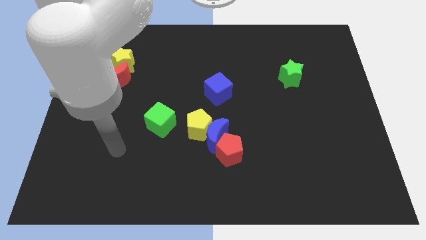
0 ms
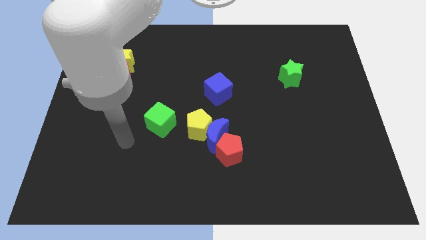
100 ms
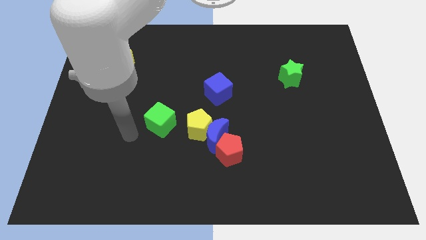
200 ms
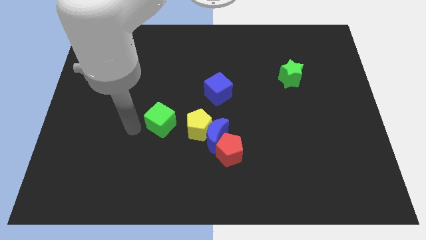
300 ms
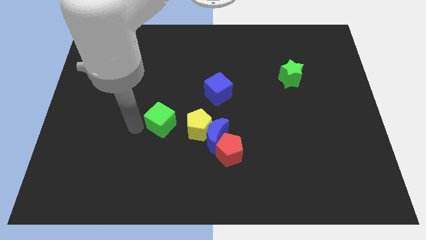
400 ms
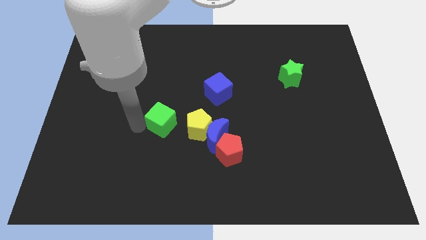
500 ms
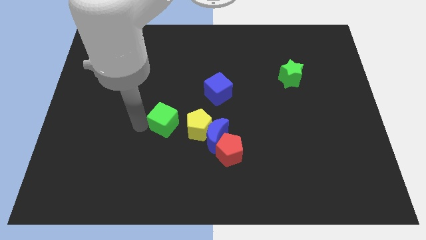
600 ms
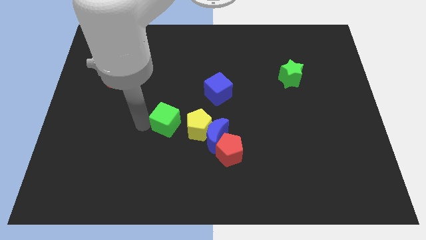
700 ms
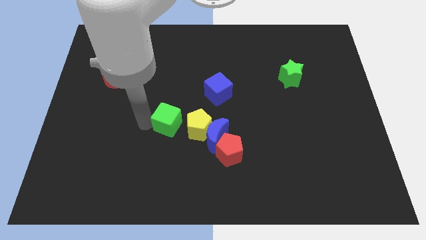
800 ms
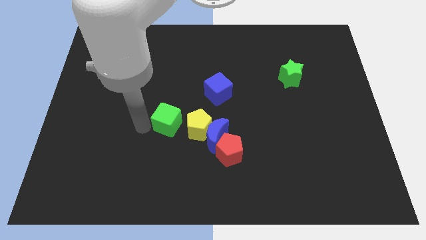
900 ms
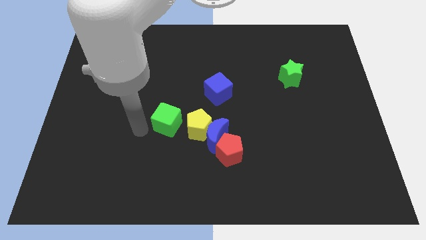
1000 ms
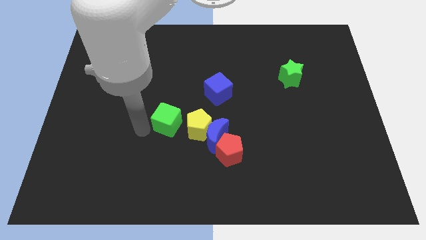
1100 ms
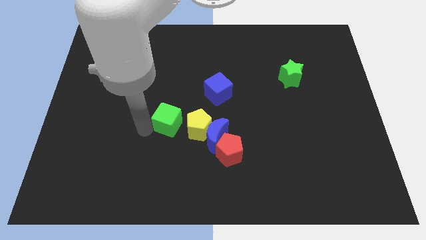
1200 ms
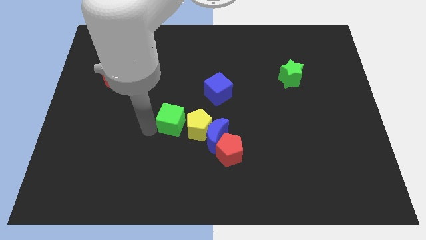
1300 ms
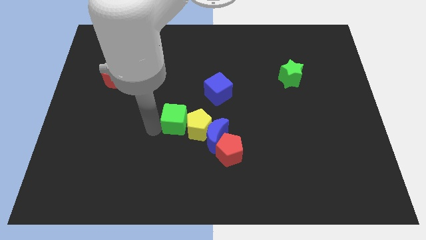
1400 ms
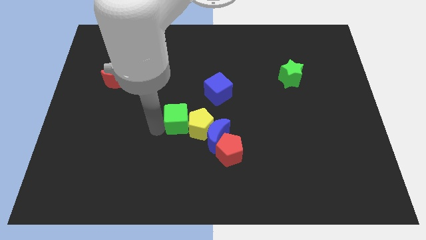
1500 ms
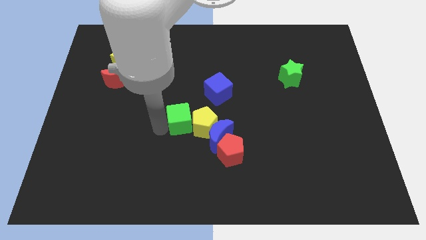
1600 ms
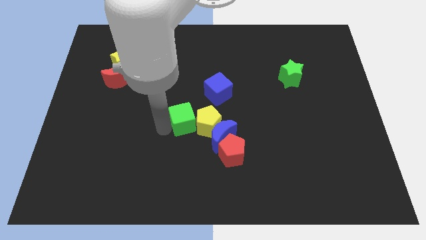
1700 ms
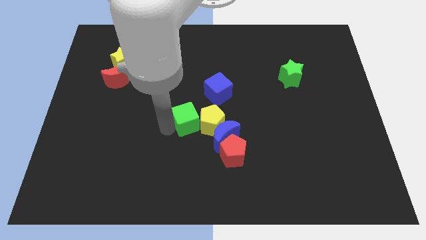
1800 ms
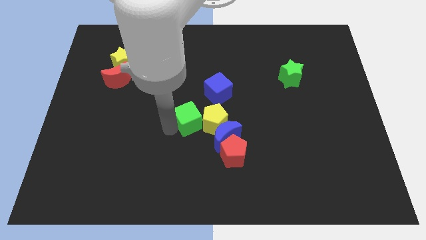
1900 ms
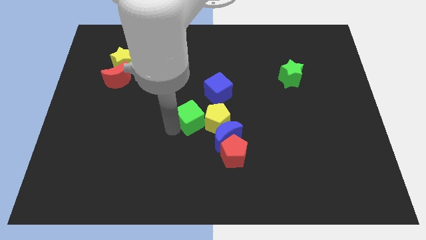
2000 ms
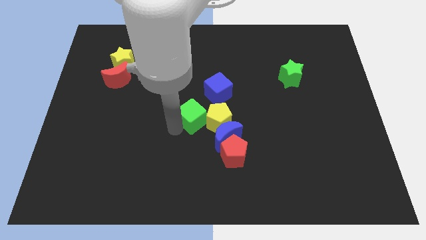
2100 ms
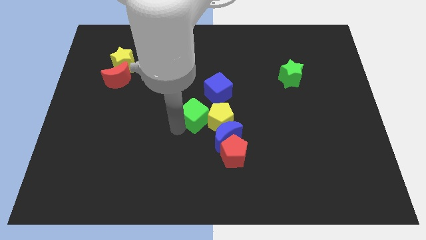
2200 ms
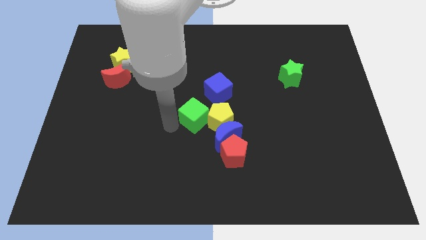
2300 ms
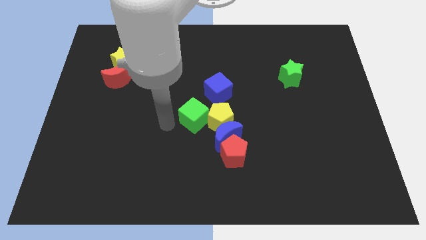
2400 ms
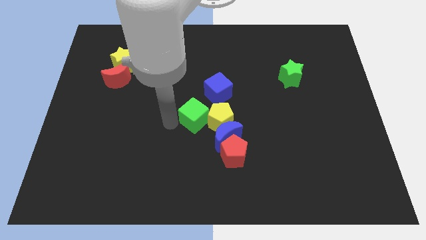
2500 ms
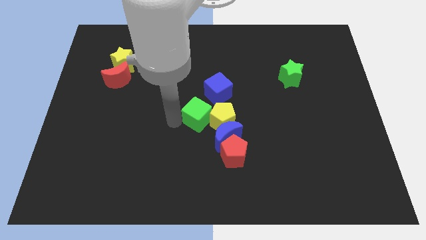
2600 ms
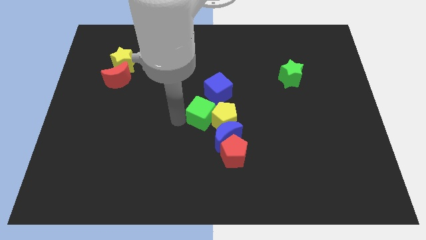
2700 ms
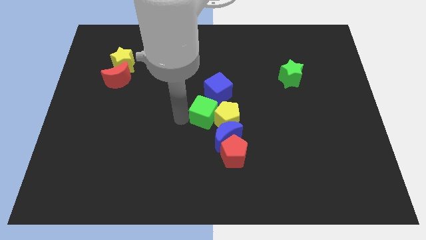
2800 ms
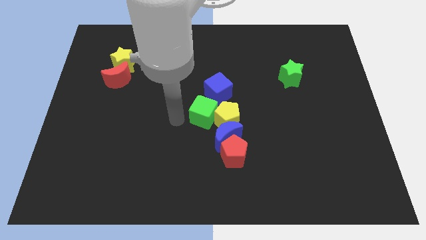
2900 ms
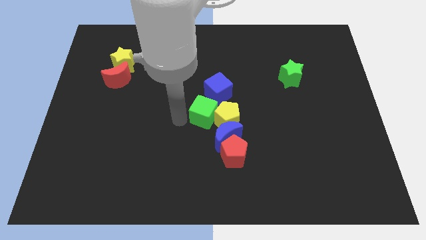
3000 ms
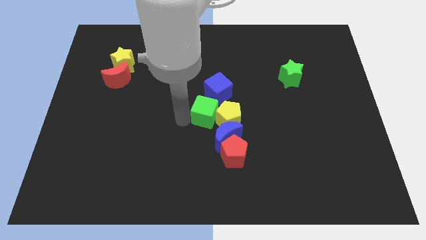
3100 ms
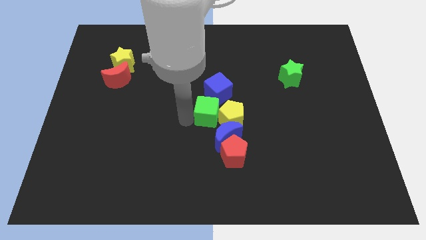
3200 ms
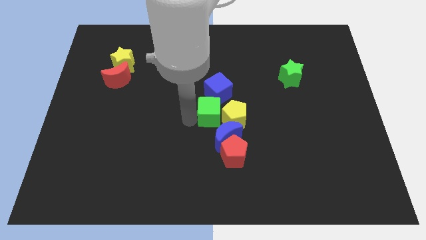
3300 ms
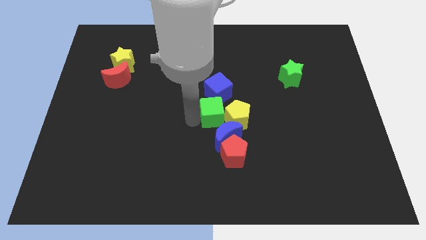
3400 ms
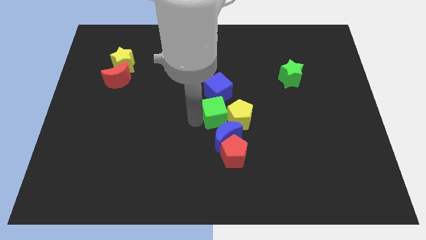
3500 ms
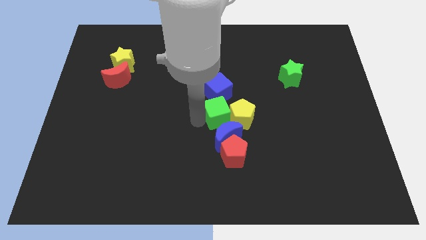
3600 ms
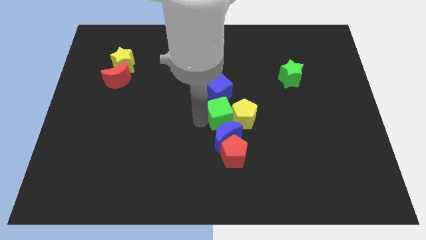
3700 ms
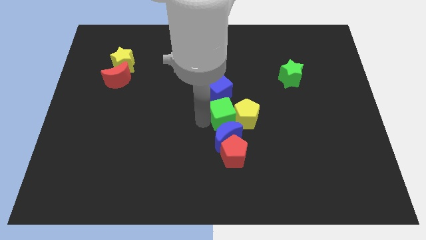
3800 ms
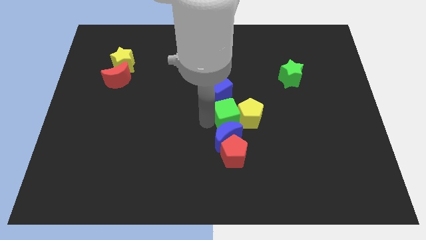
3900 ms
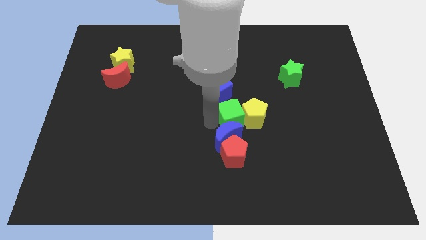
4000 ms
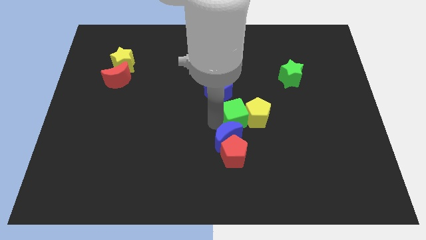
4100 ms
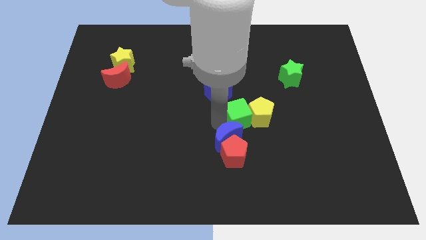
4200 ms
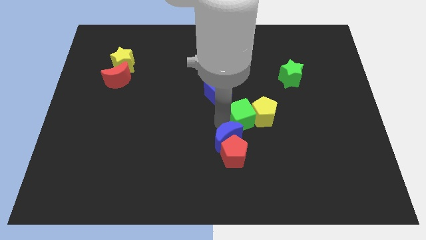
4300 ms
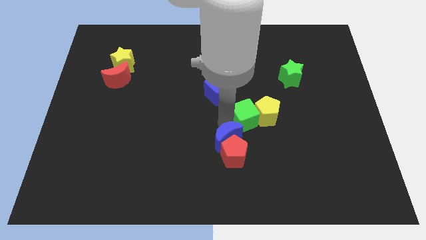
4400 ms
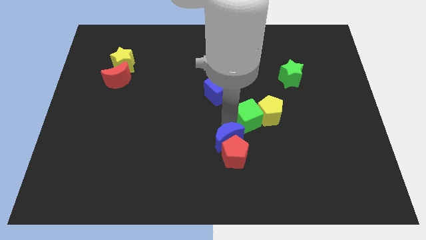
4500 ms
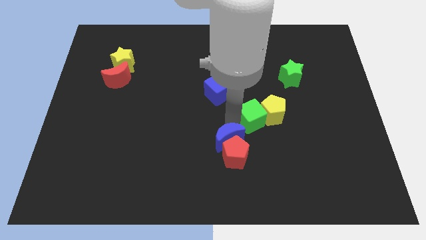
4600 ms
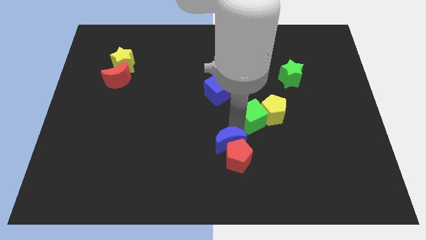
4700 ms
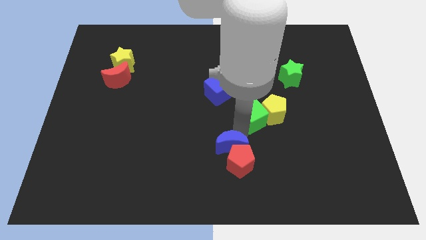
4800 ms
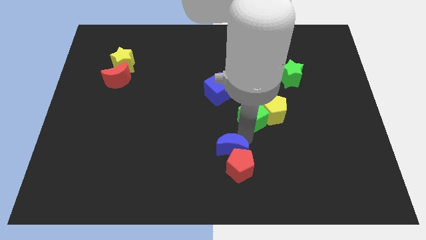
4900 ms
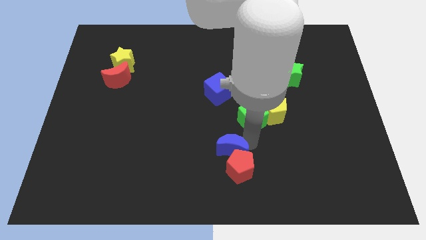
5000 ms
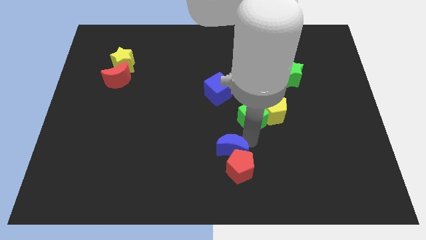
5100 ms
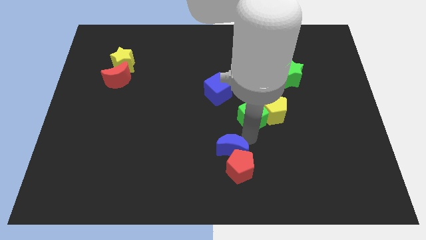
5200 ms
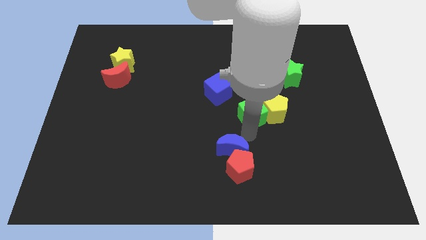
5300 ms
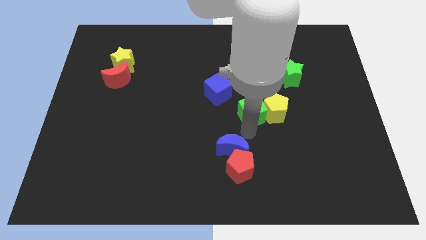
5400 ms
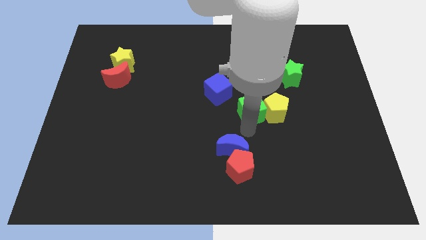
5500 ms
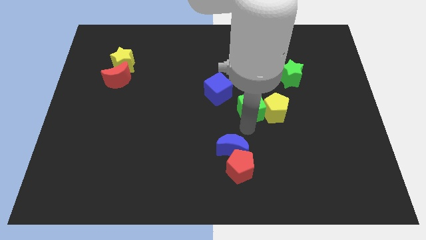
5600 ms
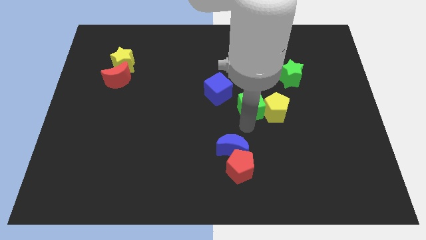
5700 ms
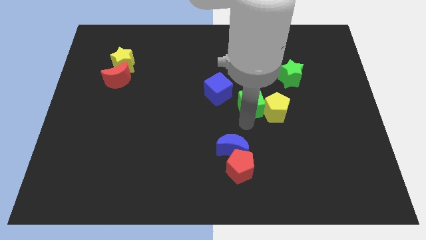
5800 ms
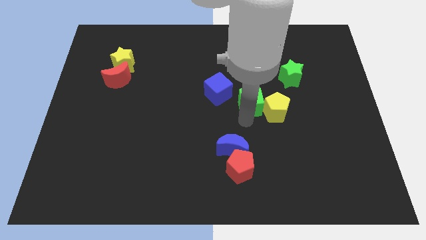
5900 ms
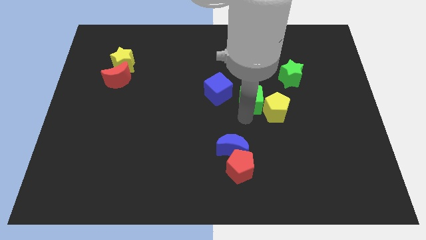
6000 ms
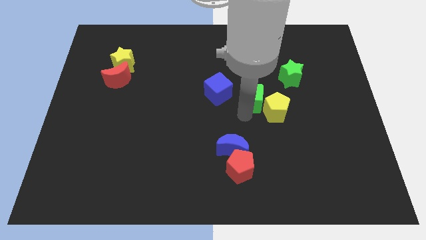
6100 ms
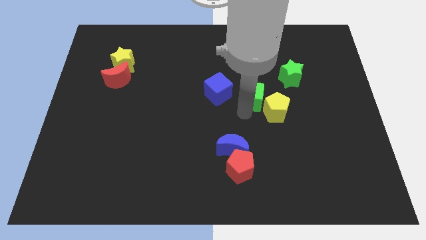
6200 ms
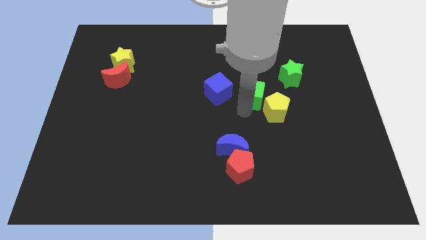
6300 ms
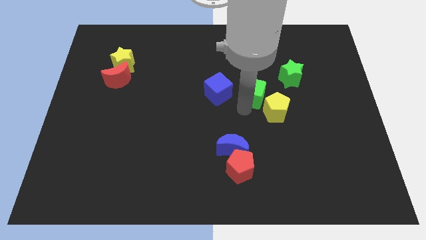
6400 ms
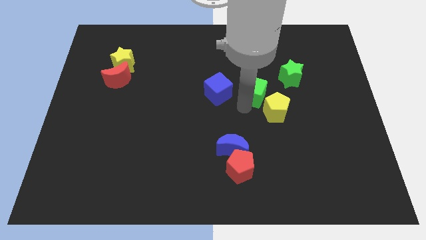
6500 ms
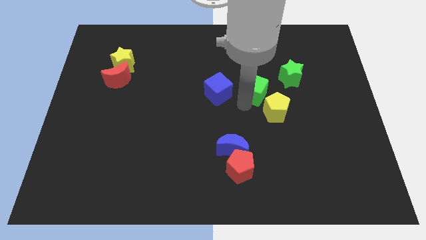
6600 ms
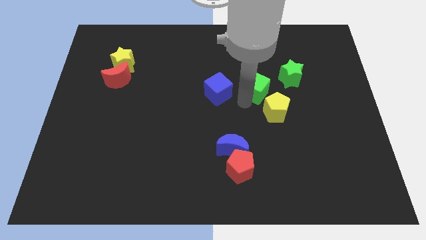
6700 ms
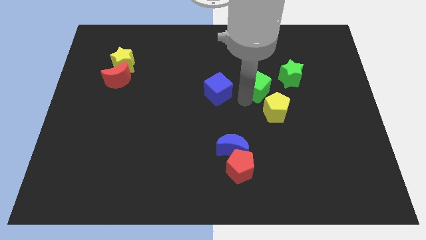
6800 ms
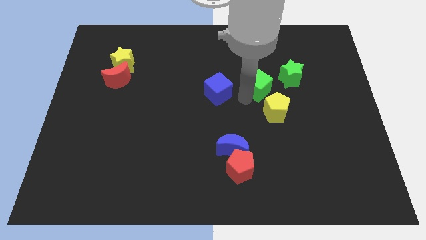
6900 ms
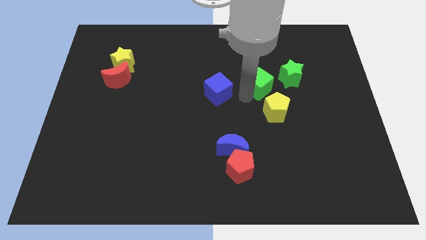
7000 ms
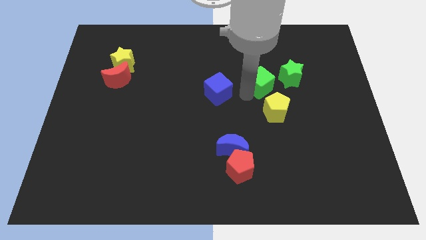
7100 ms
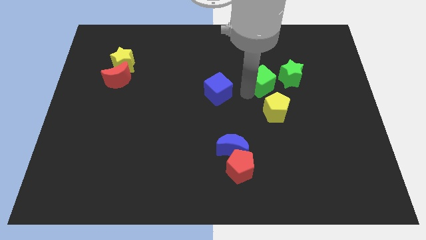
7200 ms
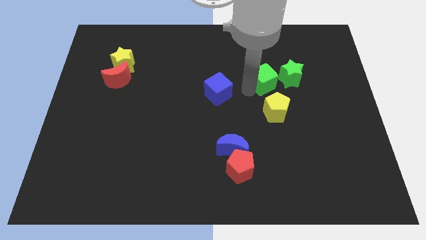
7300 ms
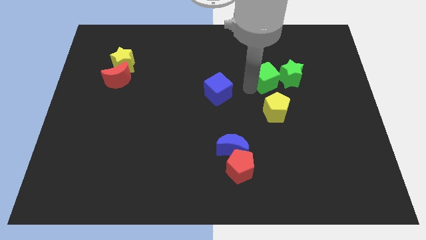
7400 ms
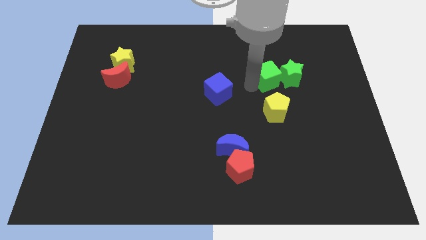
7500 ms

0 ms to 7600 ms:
put the green cube towards the green star
